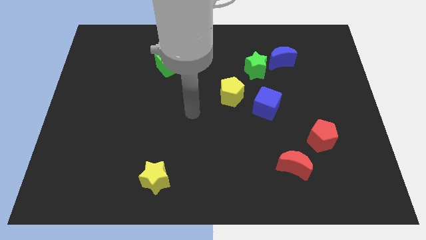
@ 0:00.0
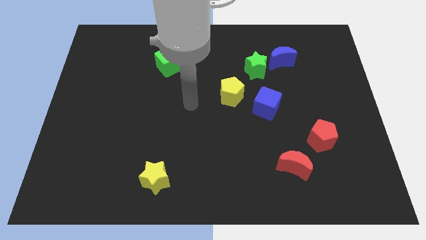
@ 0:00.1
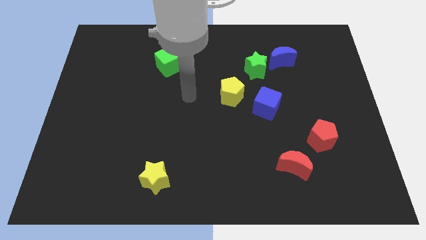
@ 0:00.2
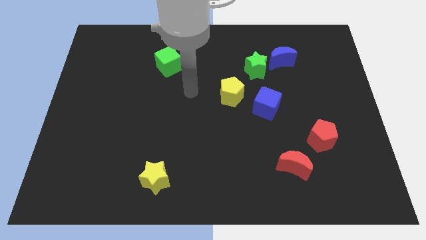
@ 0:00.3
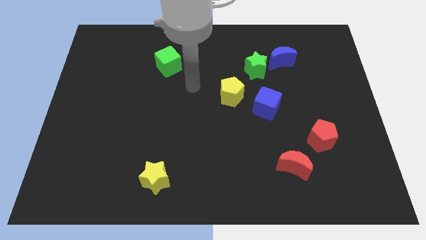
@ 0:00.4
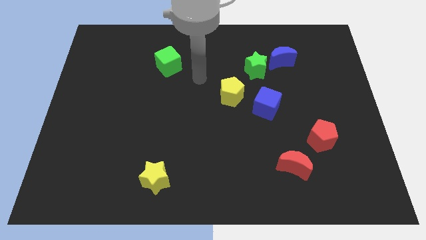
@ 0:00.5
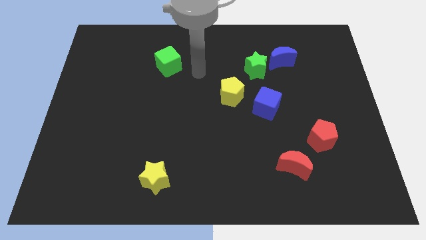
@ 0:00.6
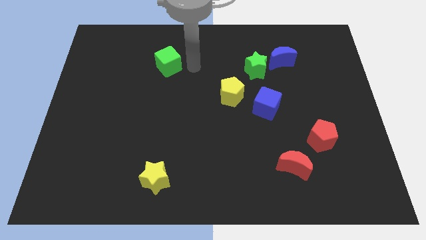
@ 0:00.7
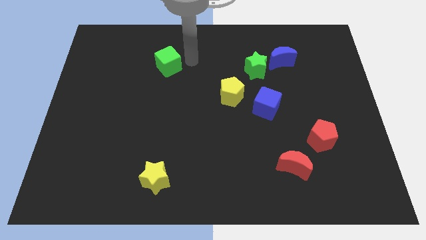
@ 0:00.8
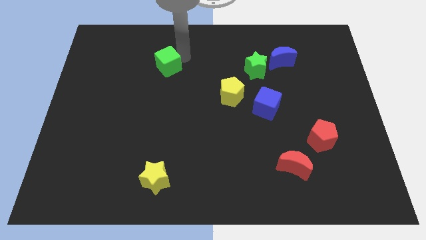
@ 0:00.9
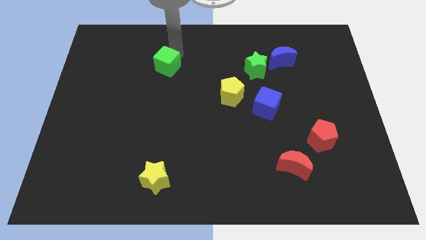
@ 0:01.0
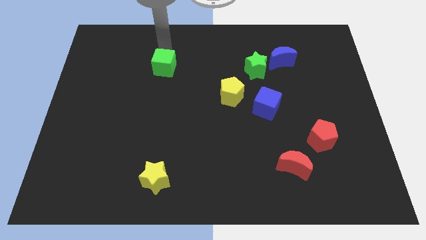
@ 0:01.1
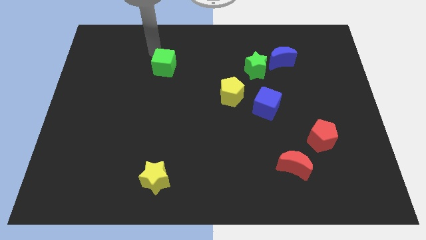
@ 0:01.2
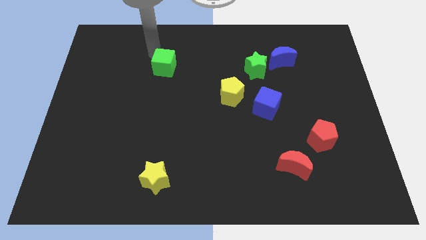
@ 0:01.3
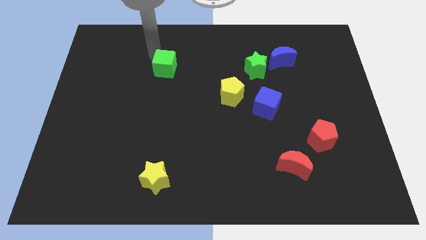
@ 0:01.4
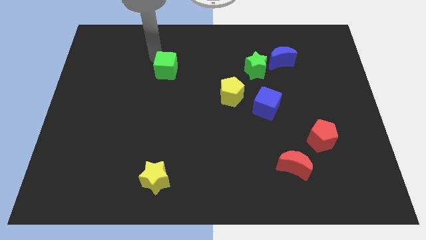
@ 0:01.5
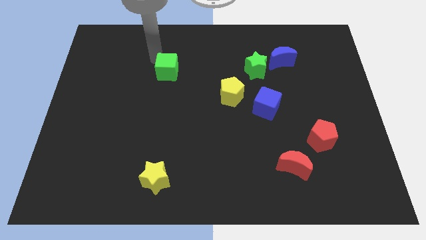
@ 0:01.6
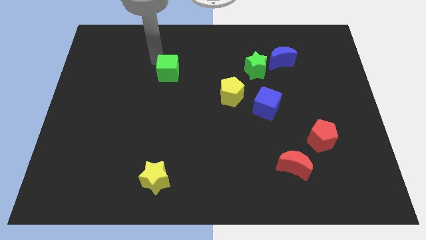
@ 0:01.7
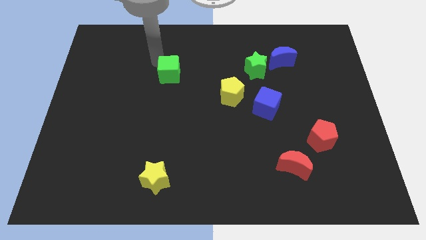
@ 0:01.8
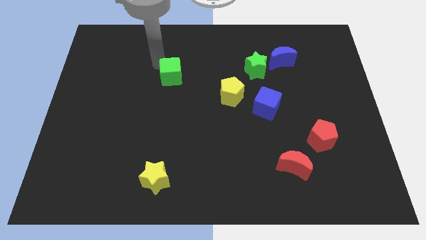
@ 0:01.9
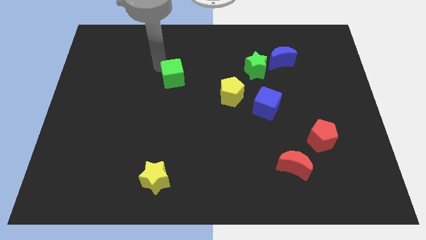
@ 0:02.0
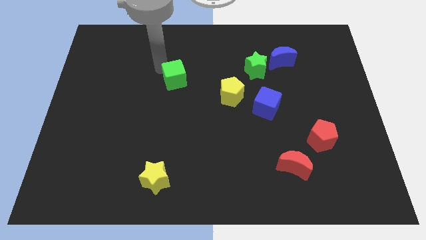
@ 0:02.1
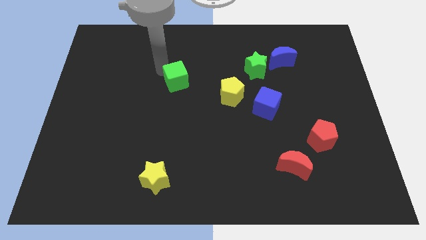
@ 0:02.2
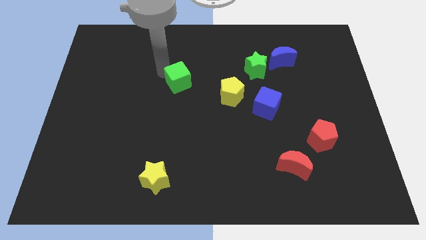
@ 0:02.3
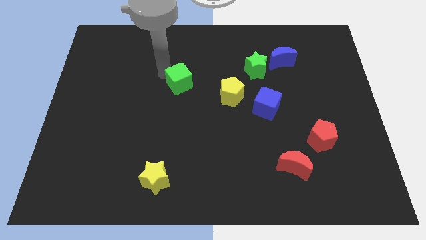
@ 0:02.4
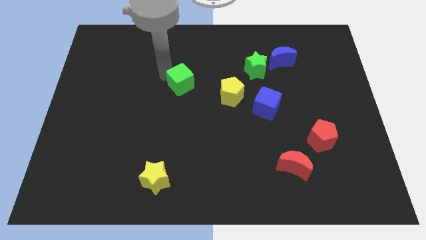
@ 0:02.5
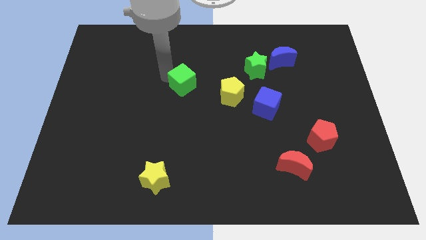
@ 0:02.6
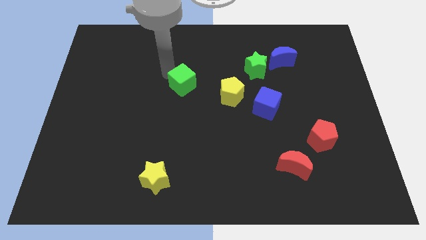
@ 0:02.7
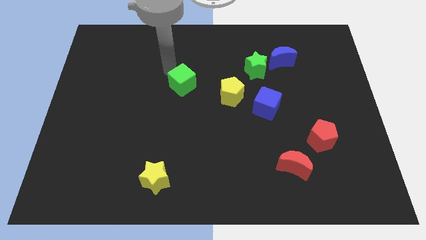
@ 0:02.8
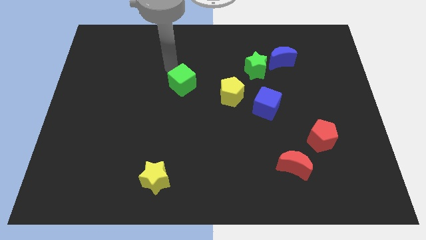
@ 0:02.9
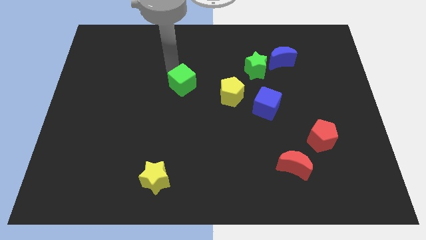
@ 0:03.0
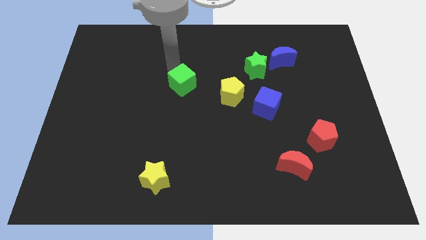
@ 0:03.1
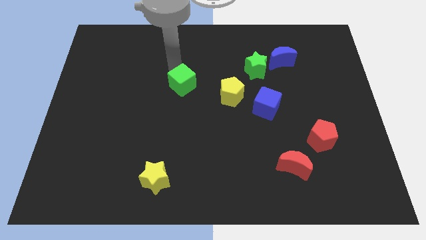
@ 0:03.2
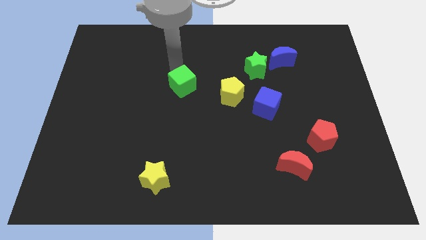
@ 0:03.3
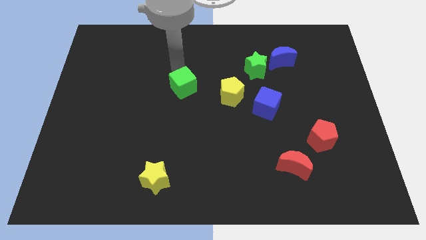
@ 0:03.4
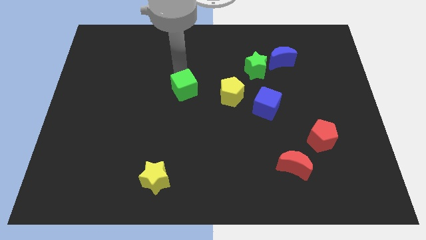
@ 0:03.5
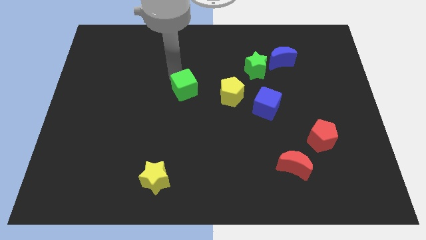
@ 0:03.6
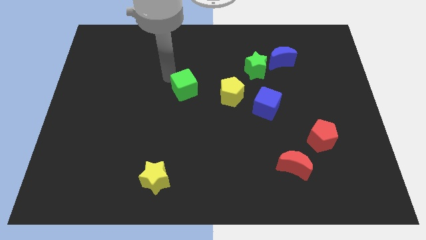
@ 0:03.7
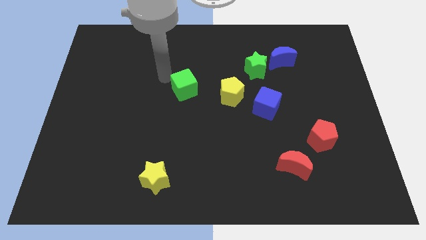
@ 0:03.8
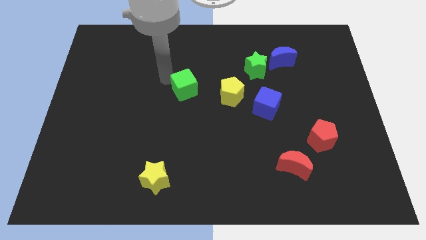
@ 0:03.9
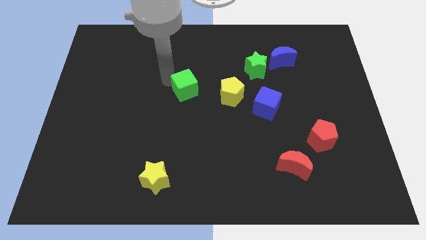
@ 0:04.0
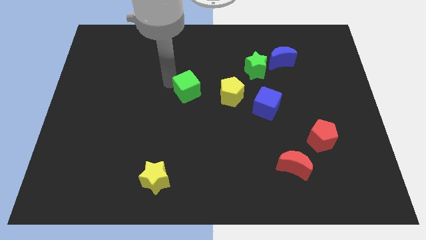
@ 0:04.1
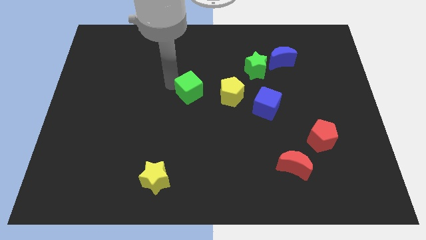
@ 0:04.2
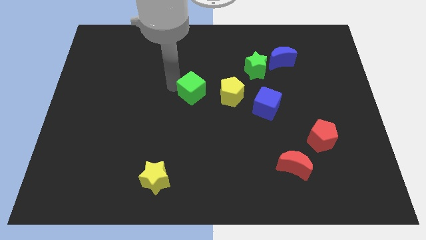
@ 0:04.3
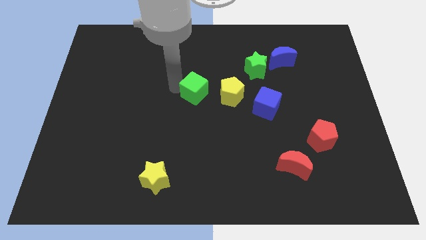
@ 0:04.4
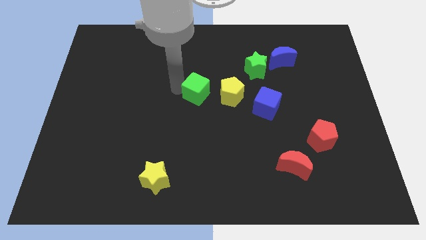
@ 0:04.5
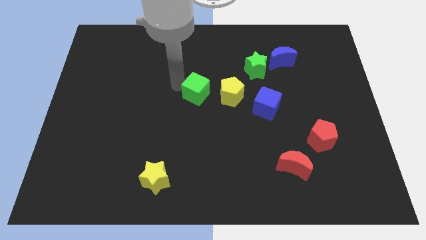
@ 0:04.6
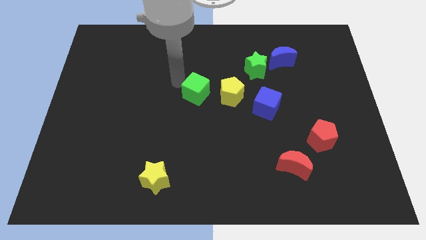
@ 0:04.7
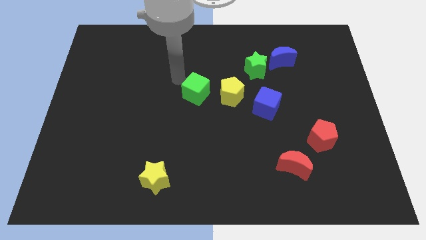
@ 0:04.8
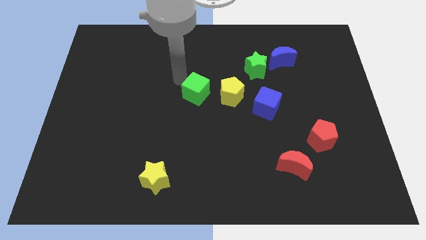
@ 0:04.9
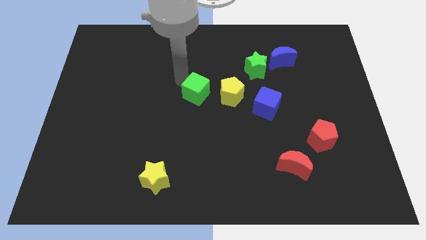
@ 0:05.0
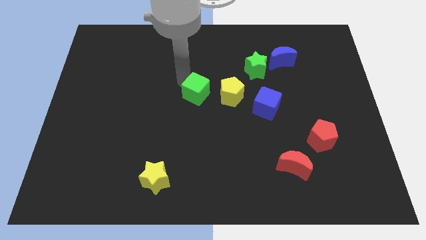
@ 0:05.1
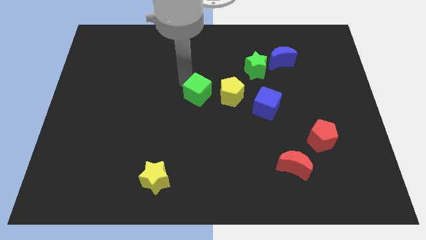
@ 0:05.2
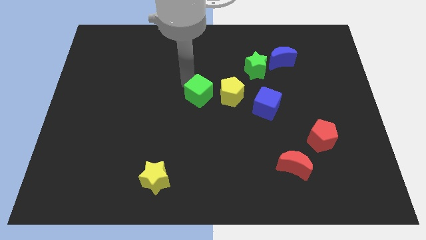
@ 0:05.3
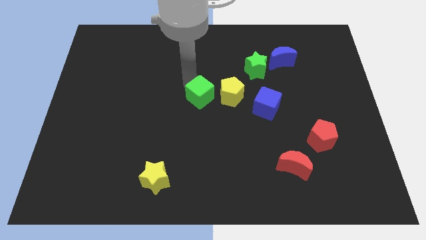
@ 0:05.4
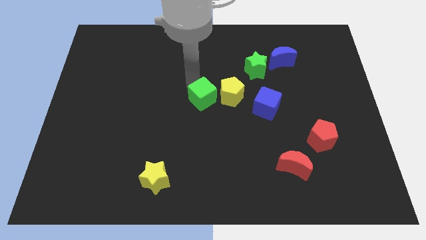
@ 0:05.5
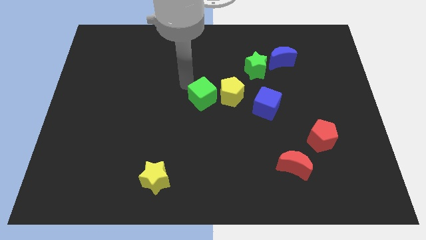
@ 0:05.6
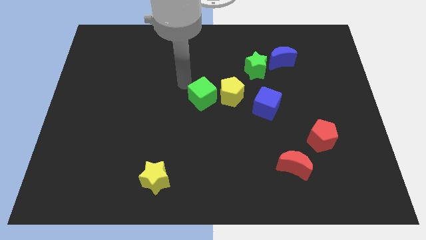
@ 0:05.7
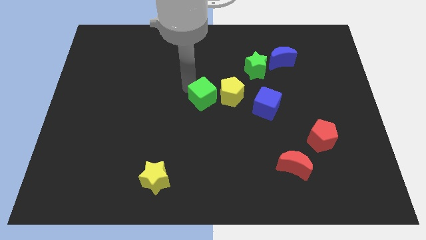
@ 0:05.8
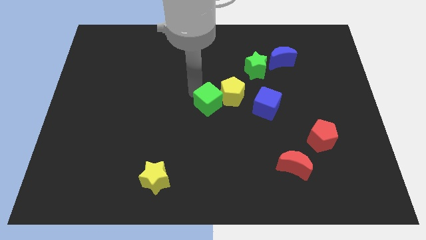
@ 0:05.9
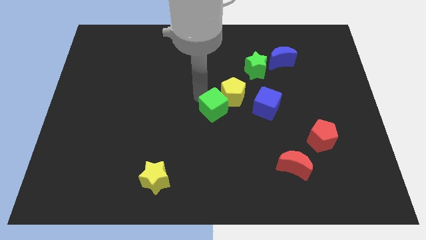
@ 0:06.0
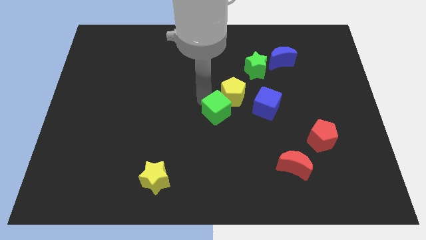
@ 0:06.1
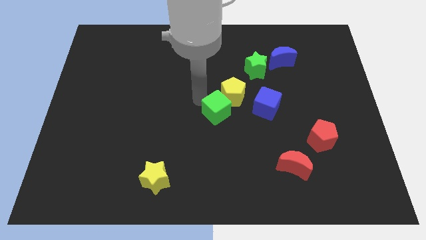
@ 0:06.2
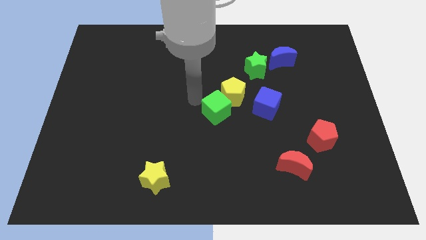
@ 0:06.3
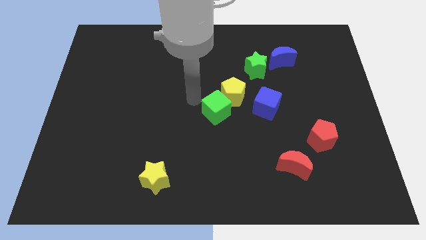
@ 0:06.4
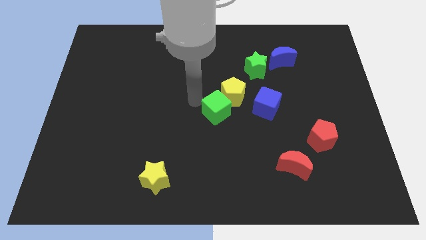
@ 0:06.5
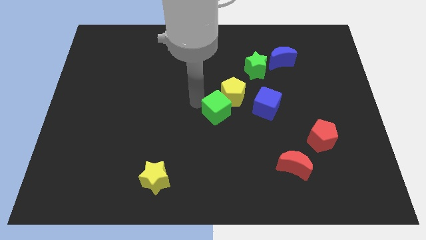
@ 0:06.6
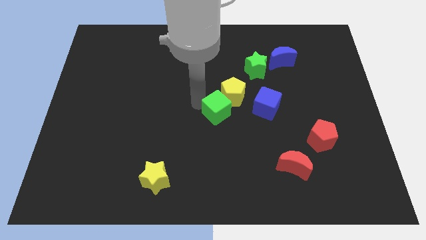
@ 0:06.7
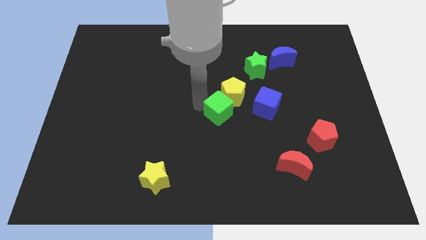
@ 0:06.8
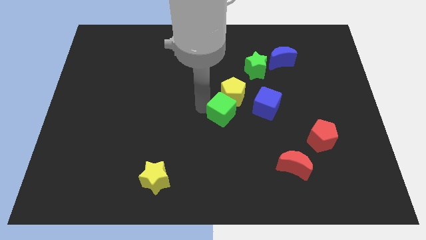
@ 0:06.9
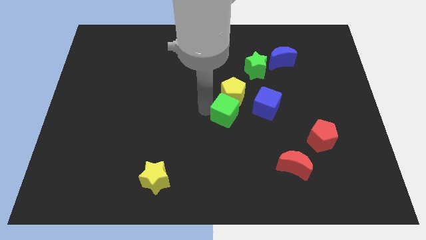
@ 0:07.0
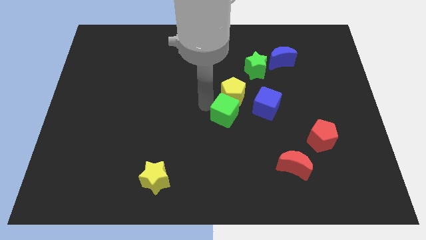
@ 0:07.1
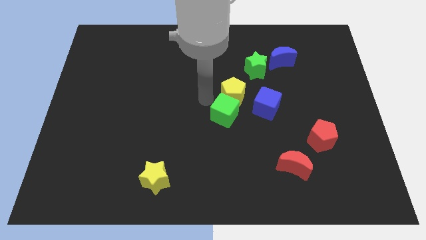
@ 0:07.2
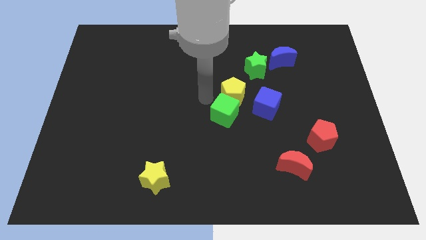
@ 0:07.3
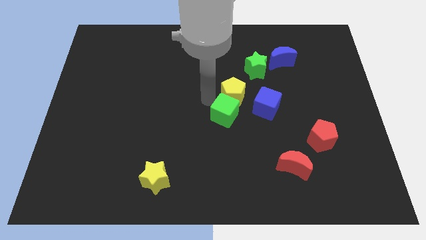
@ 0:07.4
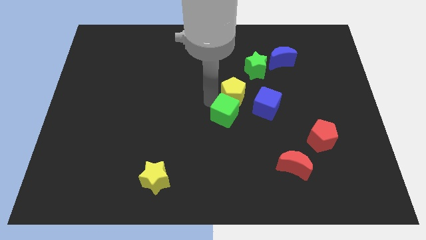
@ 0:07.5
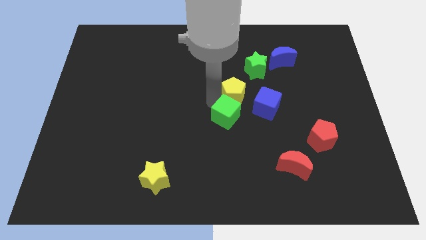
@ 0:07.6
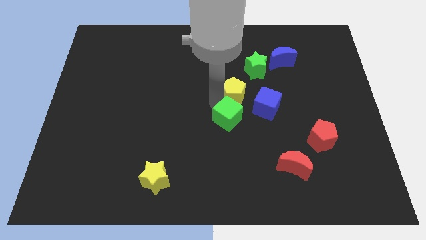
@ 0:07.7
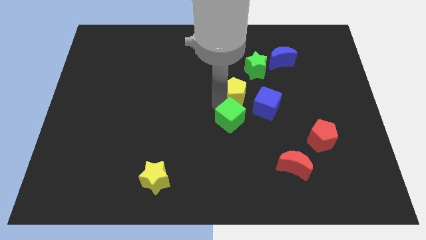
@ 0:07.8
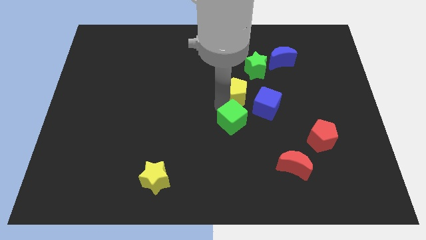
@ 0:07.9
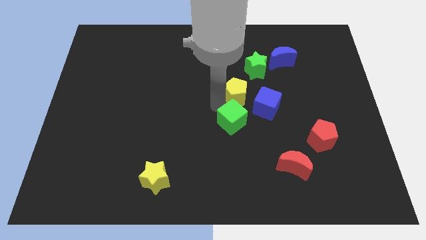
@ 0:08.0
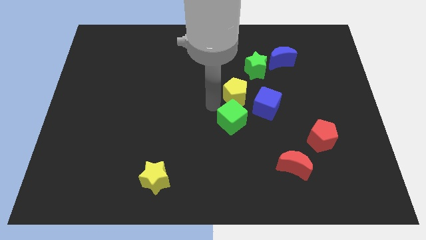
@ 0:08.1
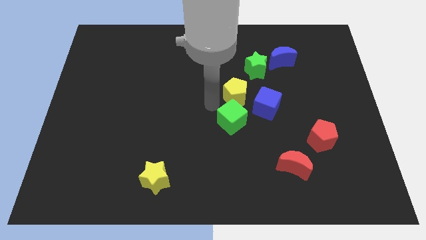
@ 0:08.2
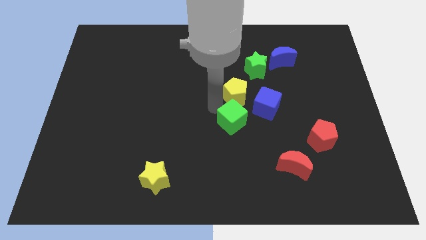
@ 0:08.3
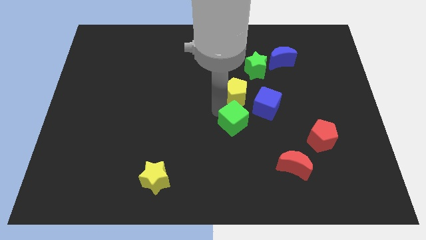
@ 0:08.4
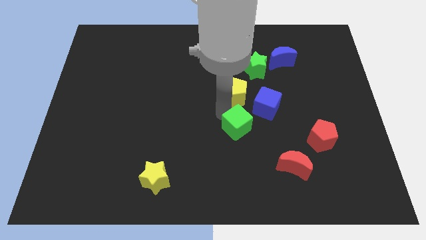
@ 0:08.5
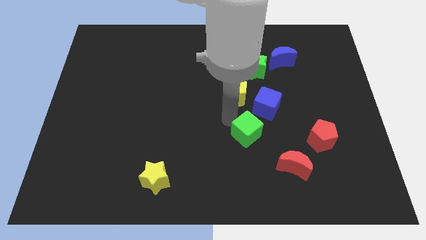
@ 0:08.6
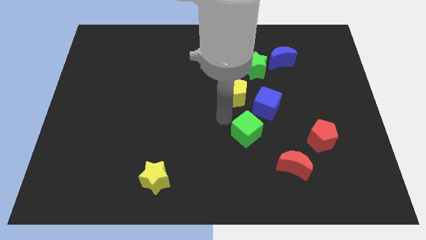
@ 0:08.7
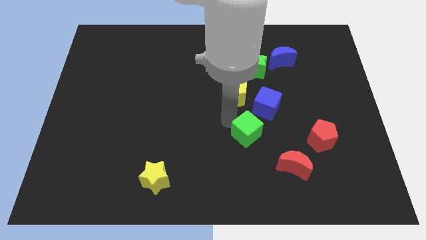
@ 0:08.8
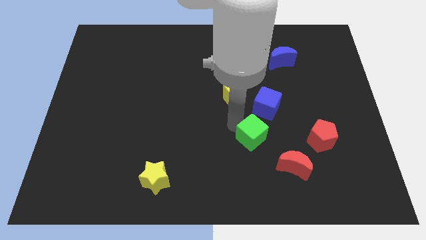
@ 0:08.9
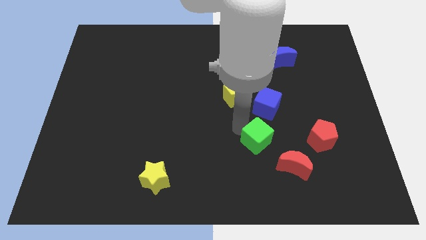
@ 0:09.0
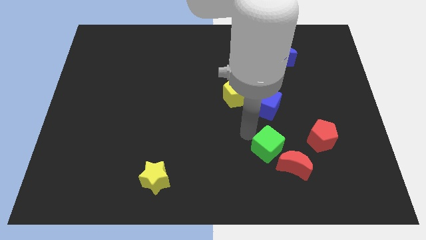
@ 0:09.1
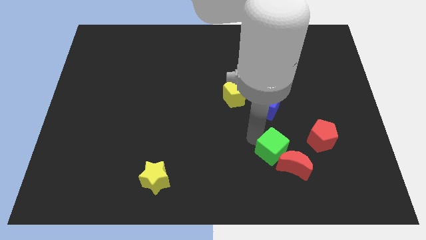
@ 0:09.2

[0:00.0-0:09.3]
put the green cube towards the red moon
